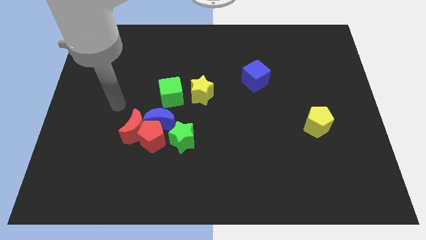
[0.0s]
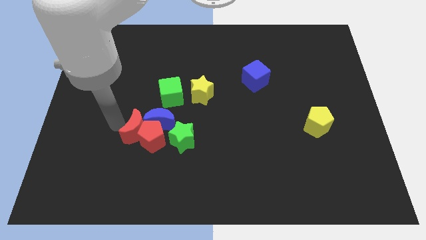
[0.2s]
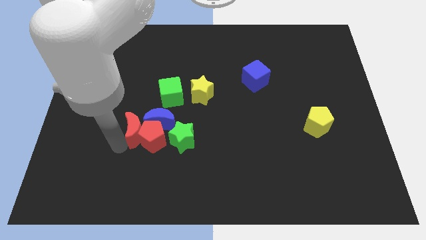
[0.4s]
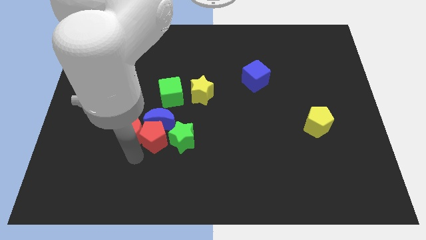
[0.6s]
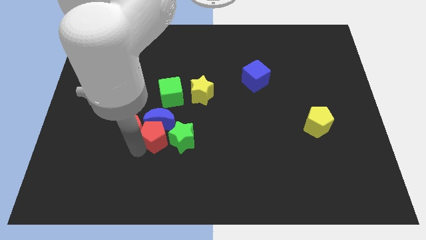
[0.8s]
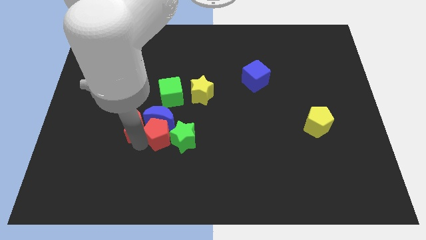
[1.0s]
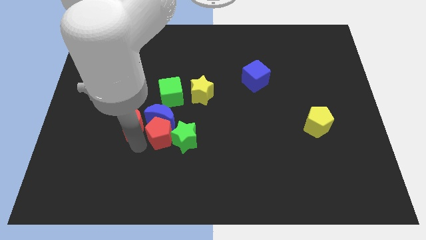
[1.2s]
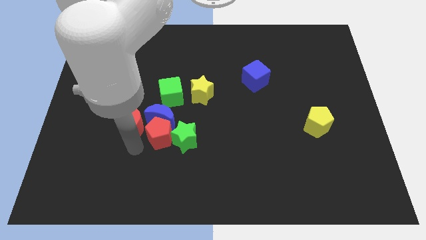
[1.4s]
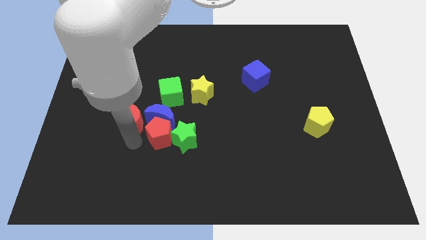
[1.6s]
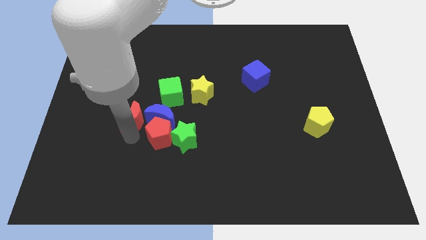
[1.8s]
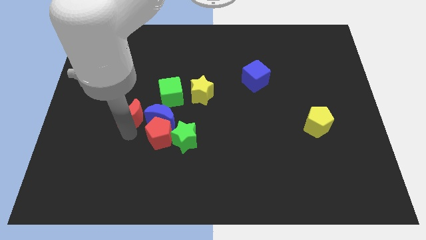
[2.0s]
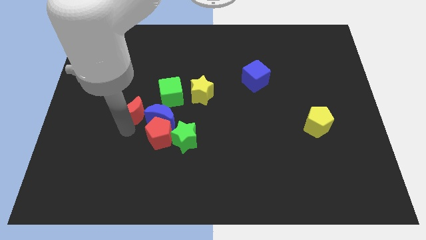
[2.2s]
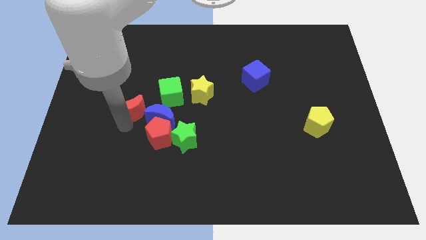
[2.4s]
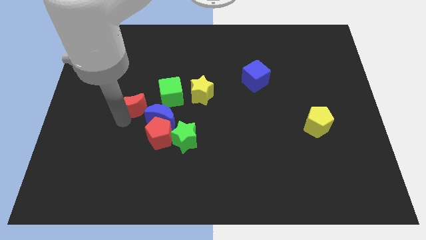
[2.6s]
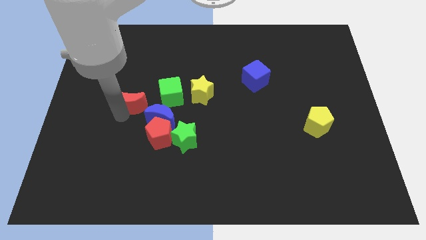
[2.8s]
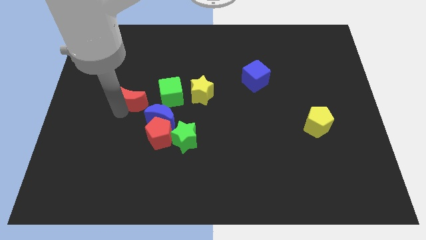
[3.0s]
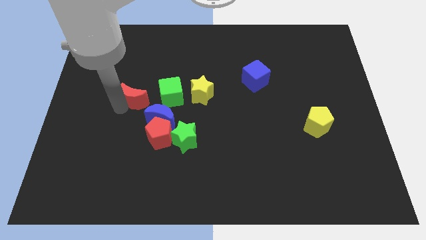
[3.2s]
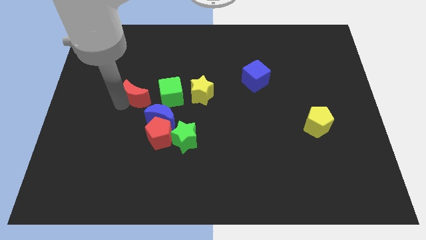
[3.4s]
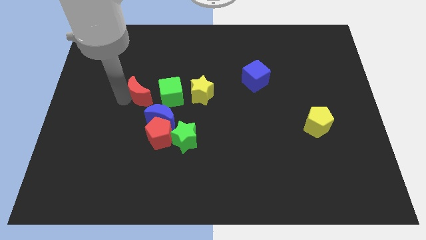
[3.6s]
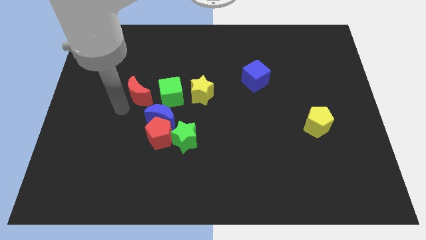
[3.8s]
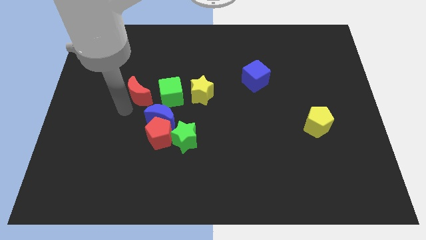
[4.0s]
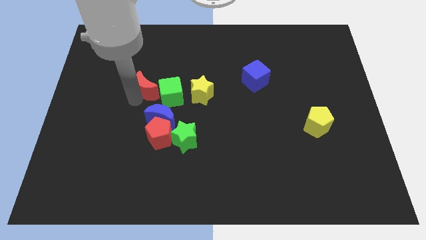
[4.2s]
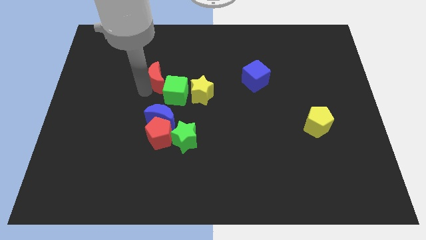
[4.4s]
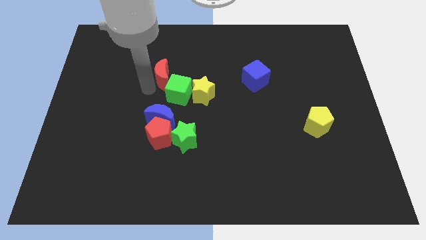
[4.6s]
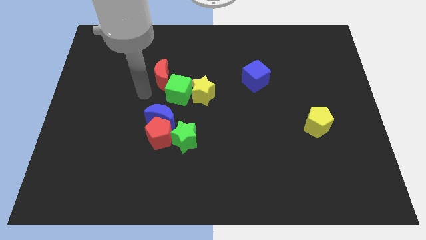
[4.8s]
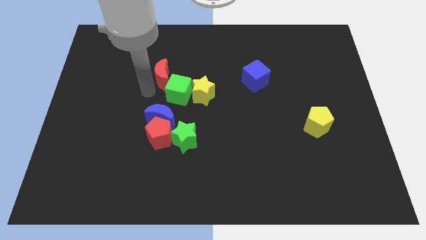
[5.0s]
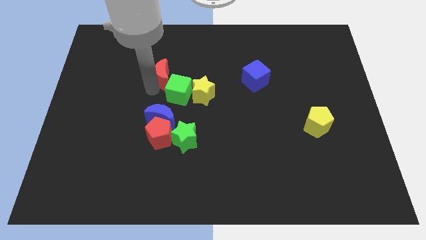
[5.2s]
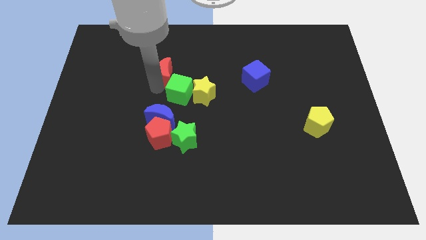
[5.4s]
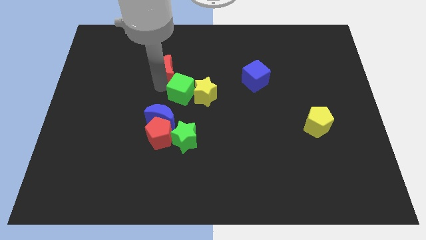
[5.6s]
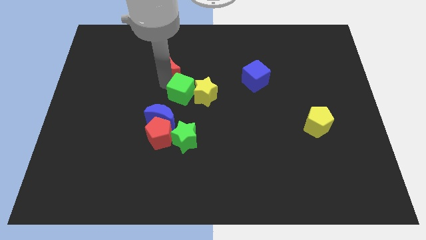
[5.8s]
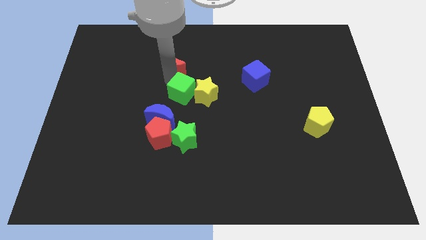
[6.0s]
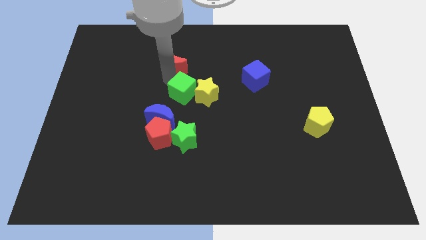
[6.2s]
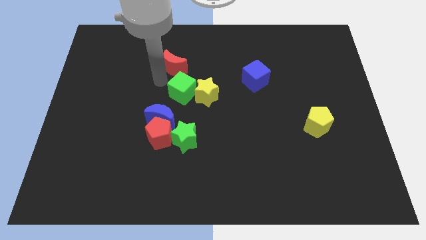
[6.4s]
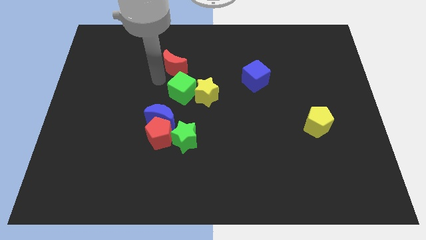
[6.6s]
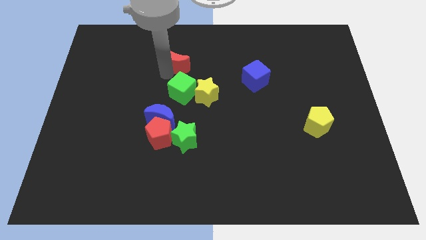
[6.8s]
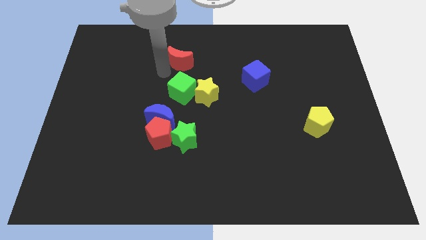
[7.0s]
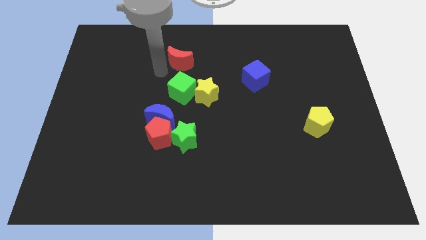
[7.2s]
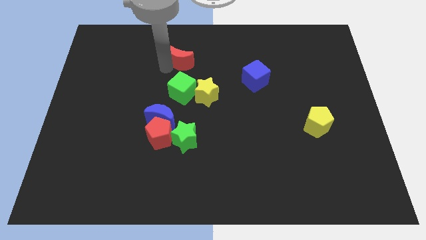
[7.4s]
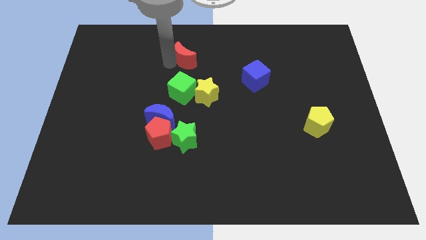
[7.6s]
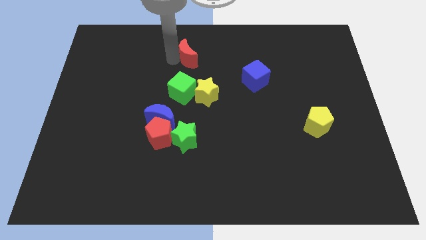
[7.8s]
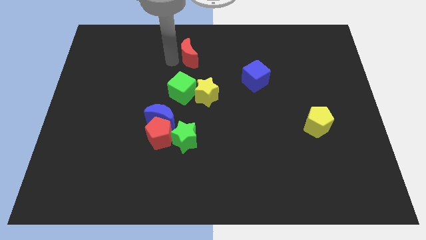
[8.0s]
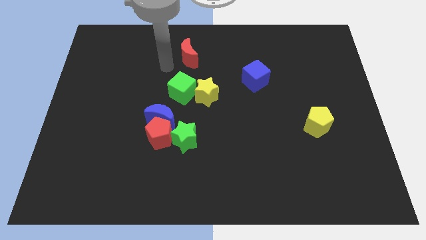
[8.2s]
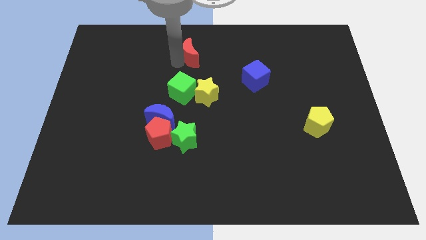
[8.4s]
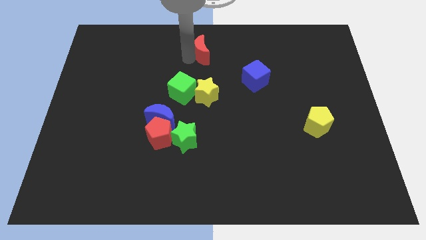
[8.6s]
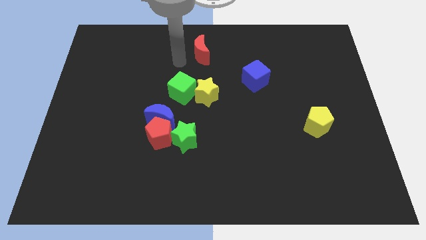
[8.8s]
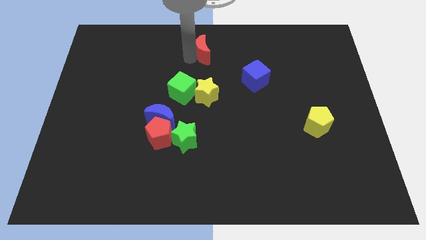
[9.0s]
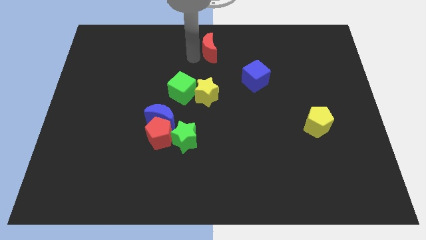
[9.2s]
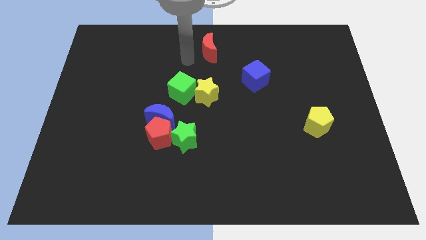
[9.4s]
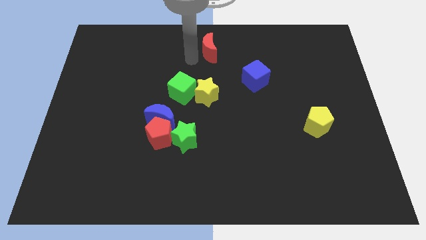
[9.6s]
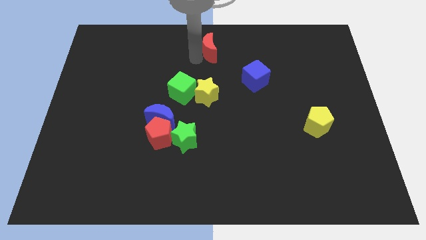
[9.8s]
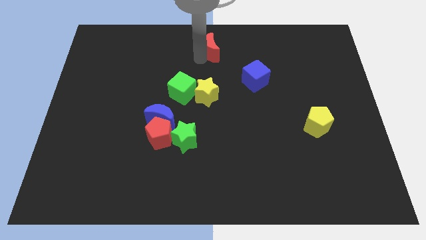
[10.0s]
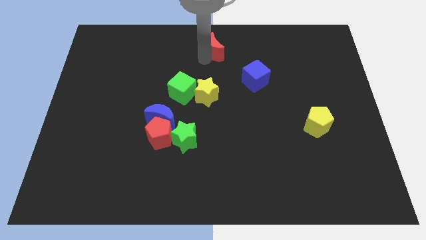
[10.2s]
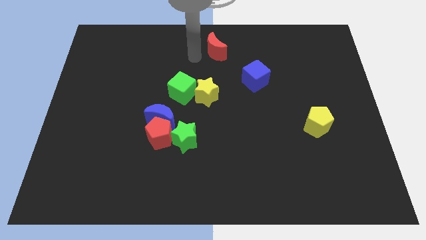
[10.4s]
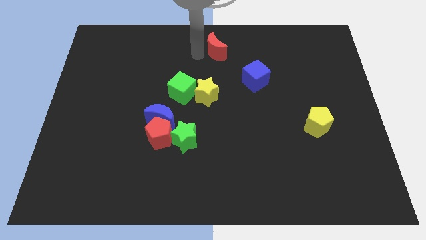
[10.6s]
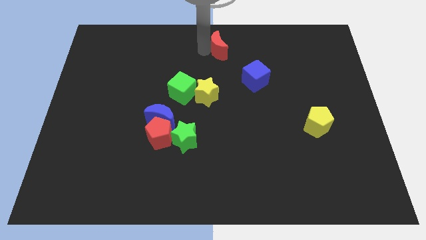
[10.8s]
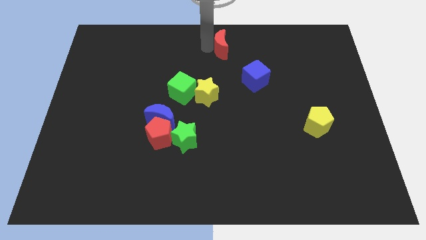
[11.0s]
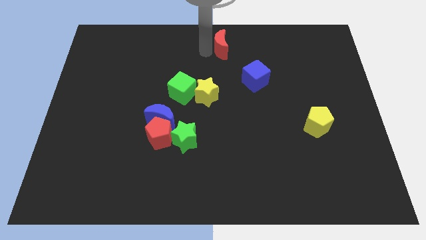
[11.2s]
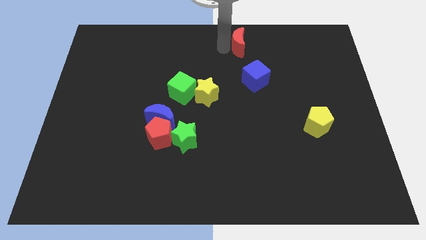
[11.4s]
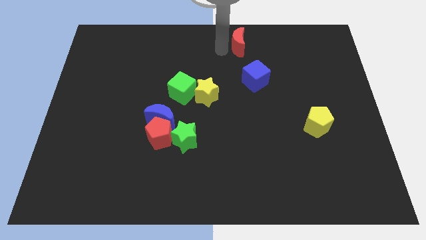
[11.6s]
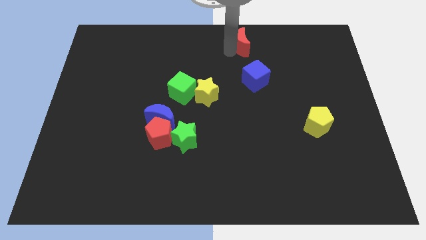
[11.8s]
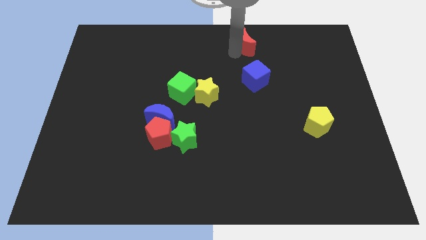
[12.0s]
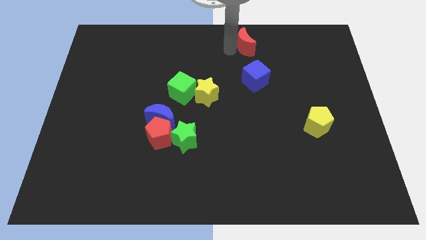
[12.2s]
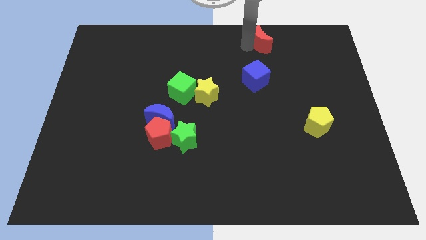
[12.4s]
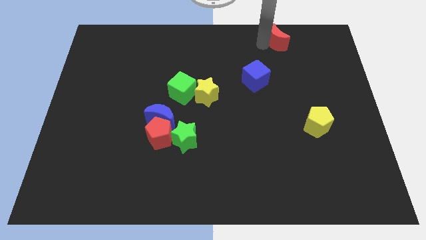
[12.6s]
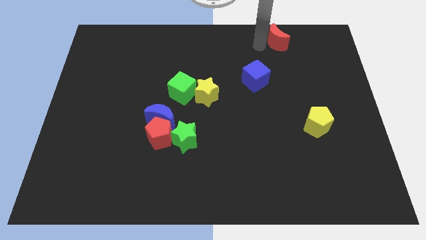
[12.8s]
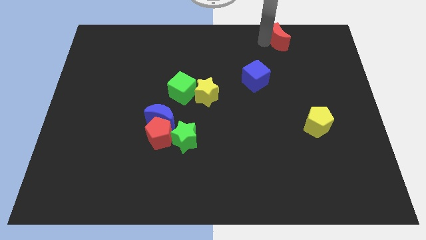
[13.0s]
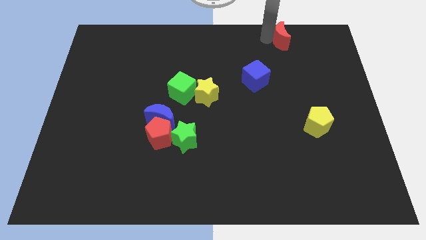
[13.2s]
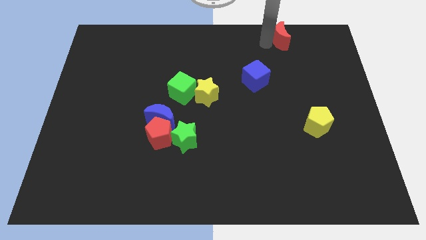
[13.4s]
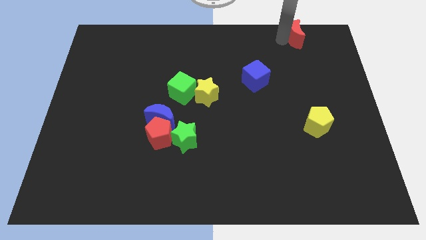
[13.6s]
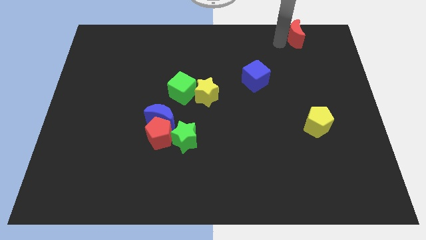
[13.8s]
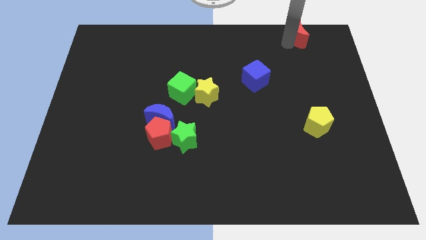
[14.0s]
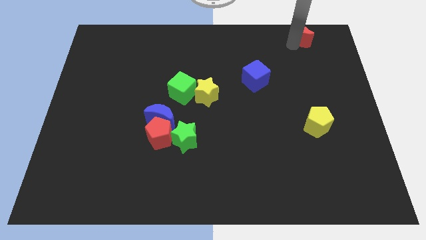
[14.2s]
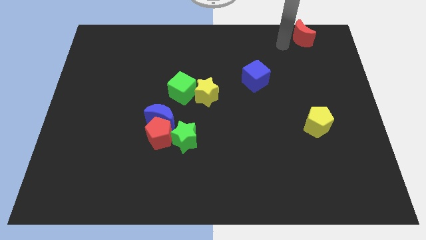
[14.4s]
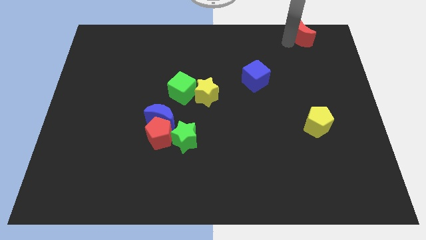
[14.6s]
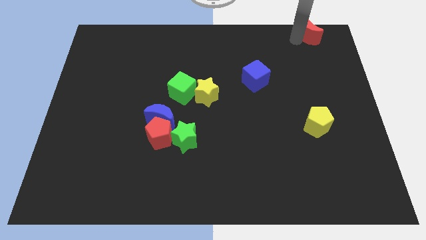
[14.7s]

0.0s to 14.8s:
slide the red moon to the top right
